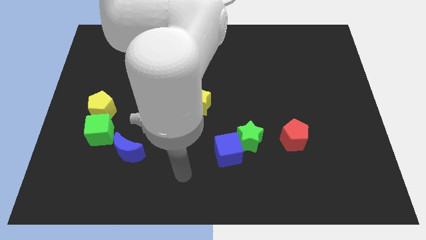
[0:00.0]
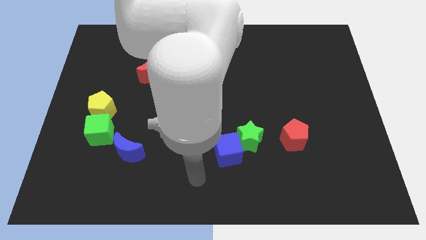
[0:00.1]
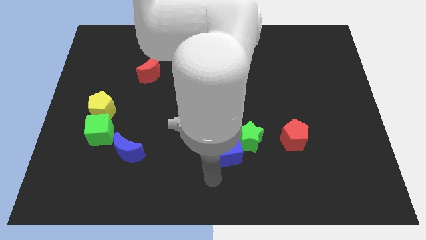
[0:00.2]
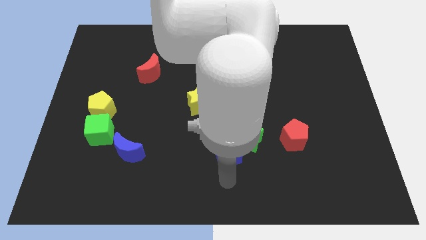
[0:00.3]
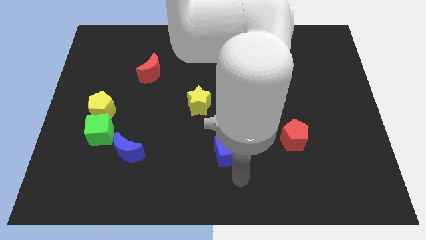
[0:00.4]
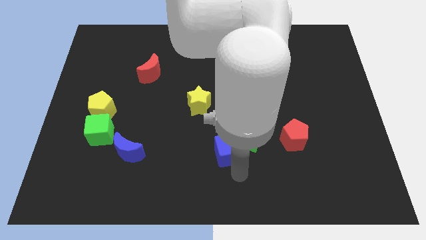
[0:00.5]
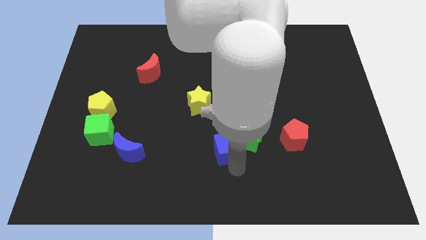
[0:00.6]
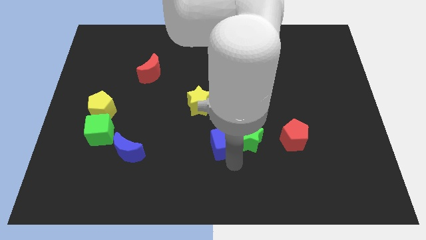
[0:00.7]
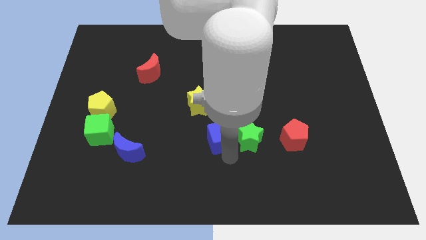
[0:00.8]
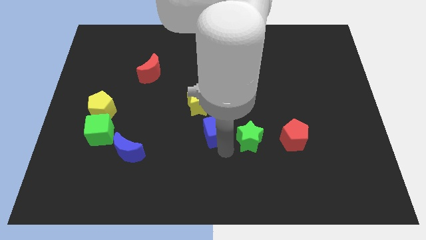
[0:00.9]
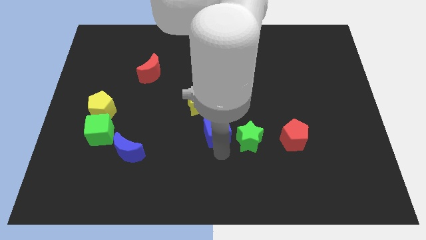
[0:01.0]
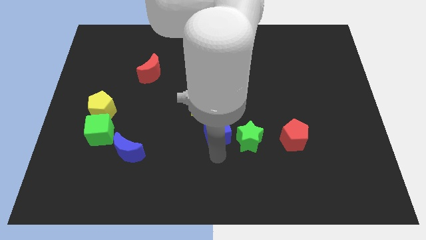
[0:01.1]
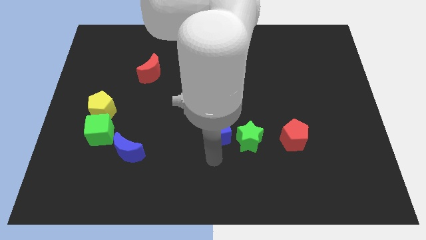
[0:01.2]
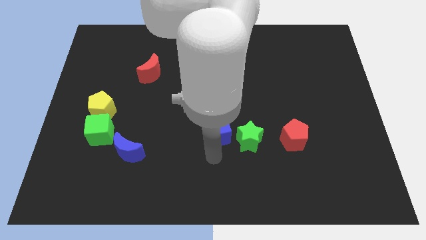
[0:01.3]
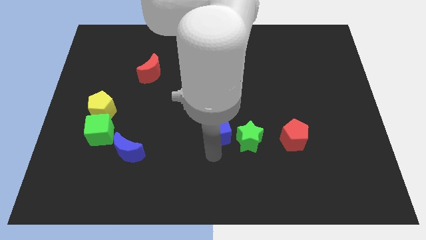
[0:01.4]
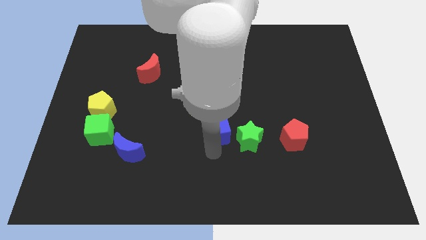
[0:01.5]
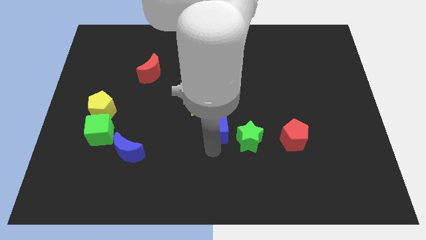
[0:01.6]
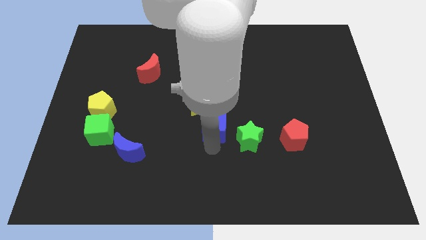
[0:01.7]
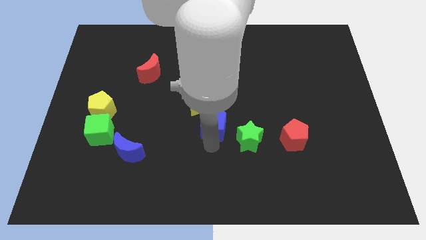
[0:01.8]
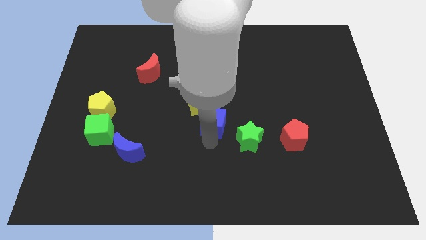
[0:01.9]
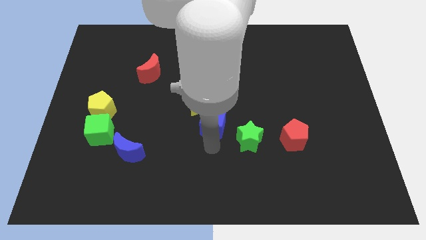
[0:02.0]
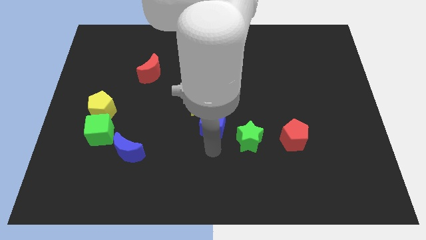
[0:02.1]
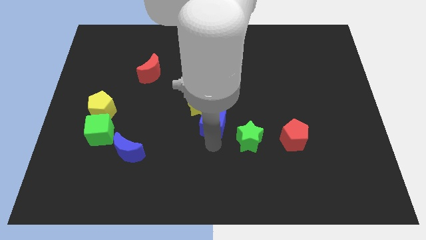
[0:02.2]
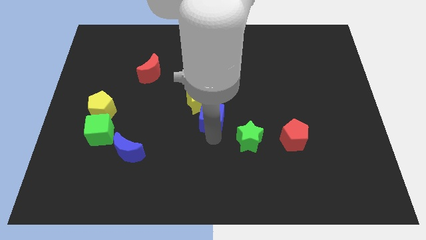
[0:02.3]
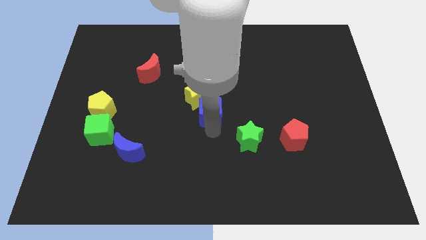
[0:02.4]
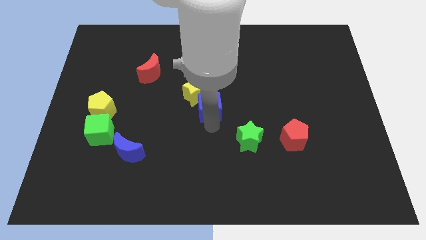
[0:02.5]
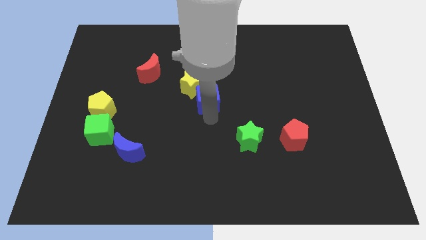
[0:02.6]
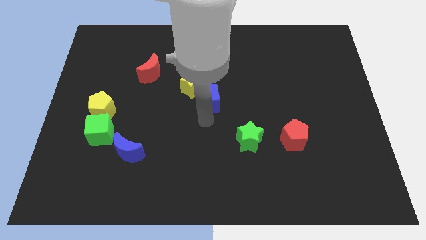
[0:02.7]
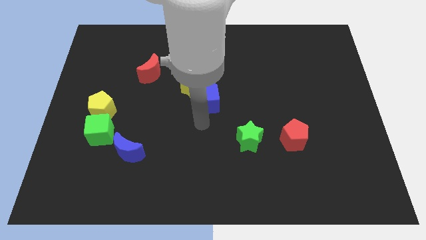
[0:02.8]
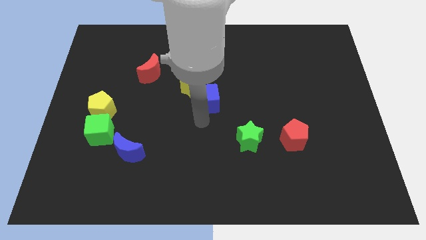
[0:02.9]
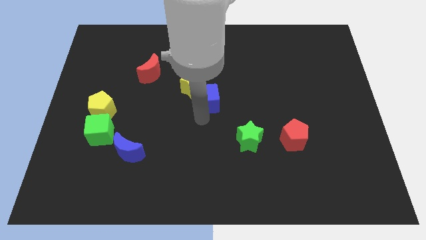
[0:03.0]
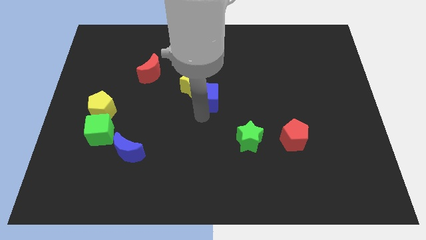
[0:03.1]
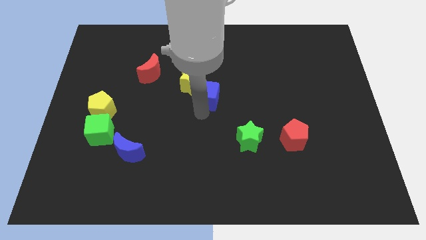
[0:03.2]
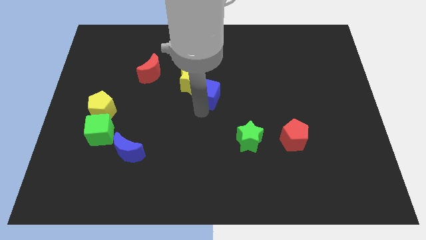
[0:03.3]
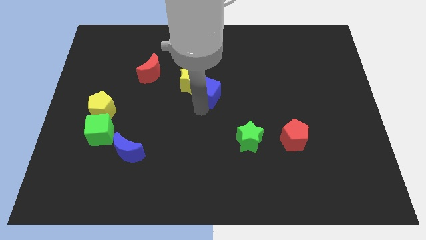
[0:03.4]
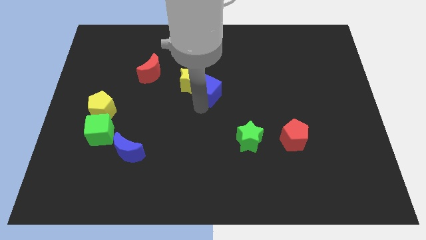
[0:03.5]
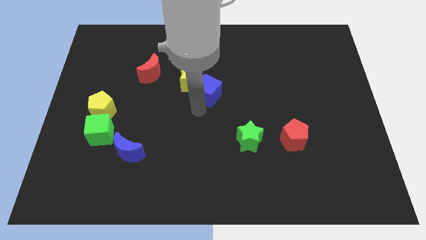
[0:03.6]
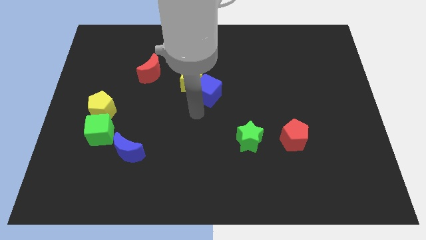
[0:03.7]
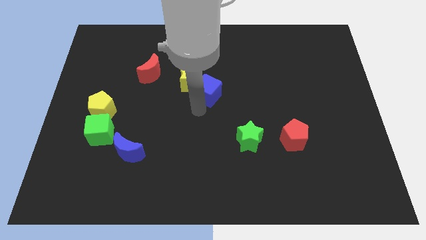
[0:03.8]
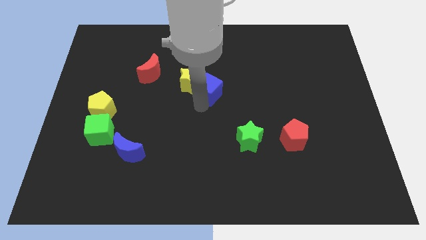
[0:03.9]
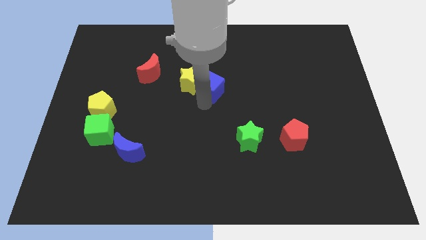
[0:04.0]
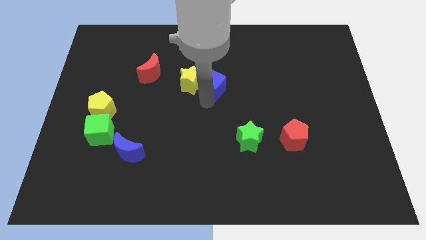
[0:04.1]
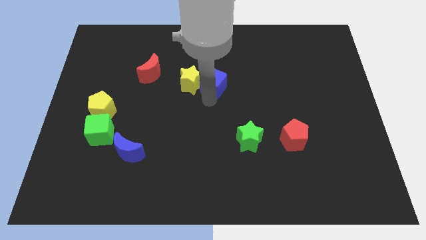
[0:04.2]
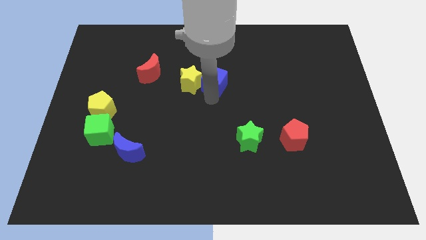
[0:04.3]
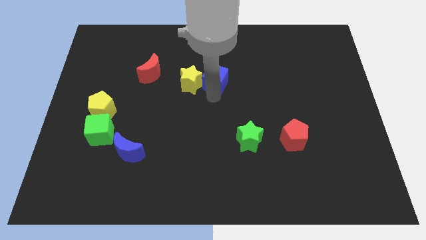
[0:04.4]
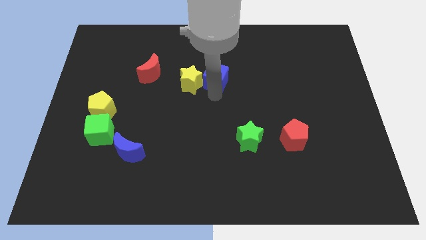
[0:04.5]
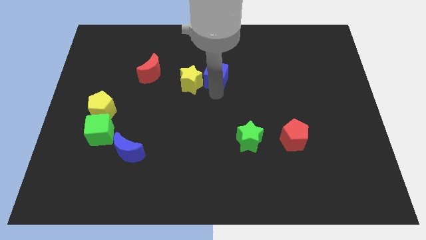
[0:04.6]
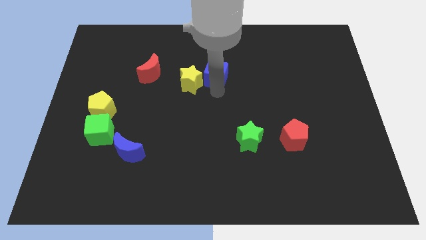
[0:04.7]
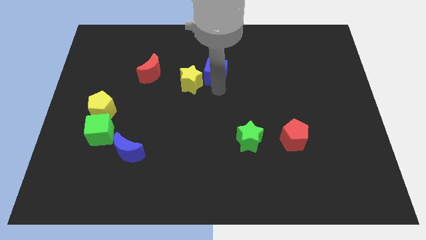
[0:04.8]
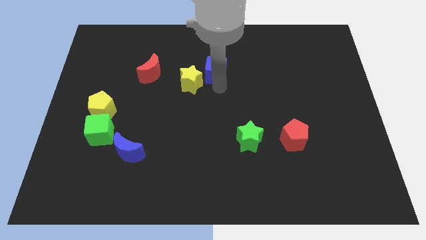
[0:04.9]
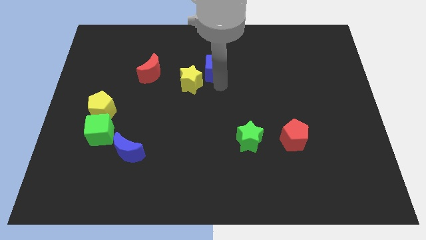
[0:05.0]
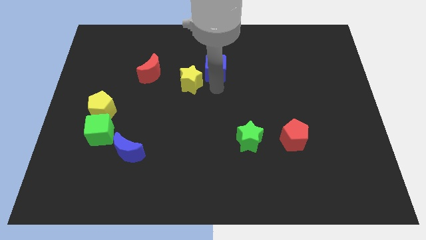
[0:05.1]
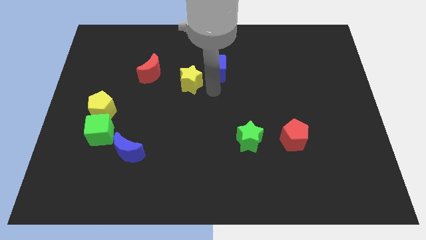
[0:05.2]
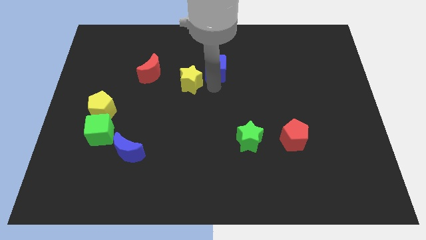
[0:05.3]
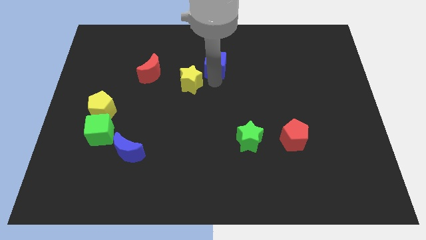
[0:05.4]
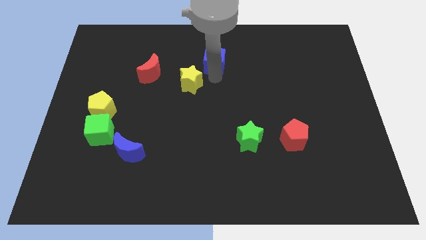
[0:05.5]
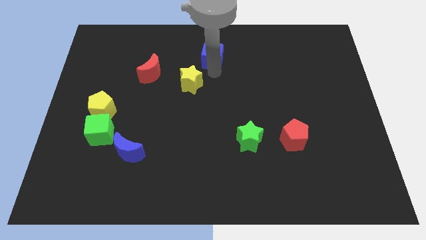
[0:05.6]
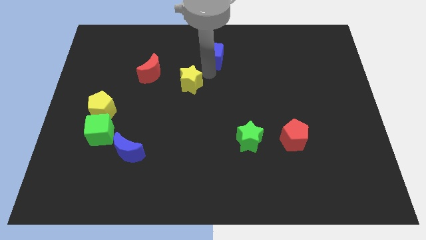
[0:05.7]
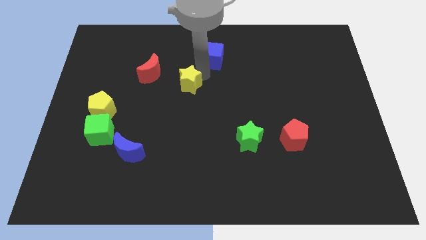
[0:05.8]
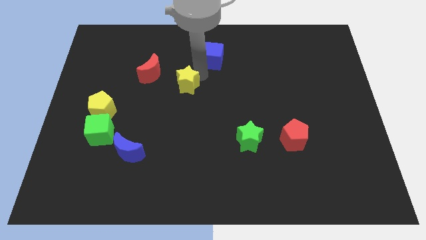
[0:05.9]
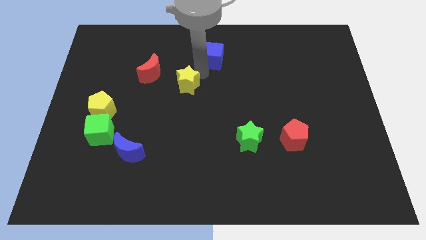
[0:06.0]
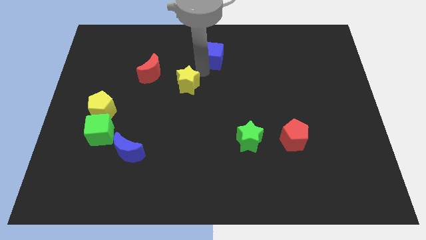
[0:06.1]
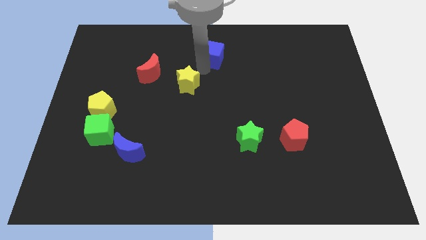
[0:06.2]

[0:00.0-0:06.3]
slide the blue cube to the towards your base

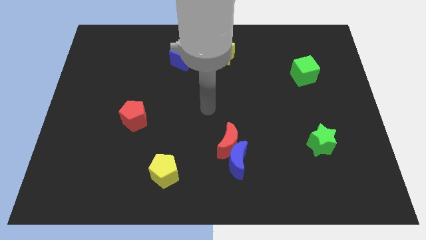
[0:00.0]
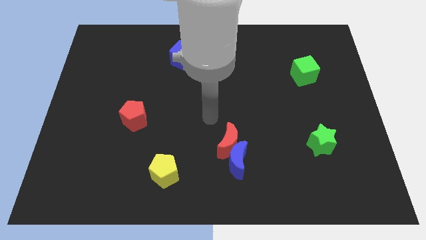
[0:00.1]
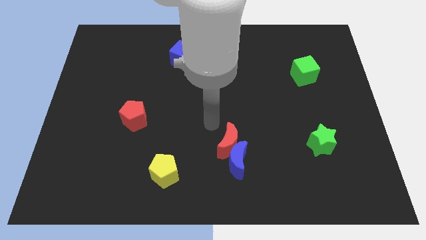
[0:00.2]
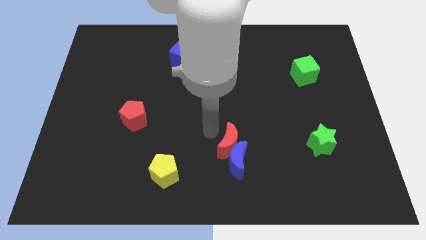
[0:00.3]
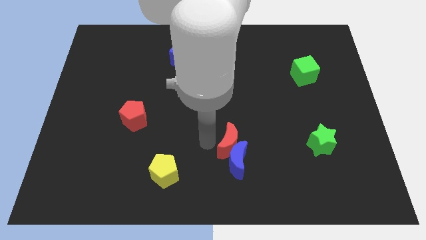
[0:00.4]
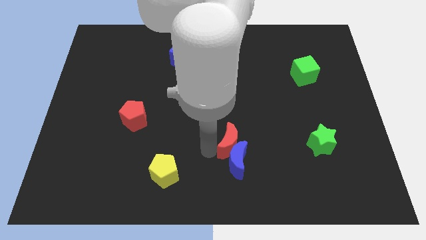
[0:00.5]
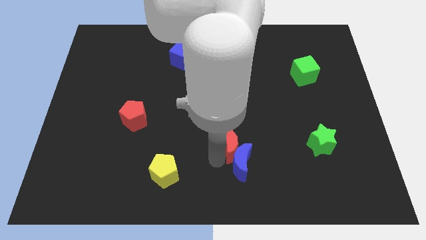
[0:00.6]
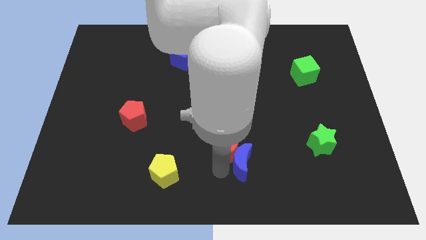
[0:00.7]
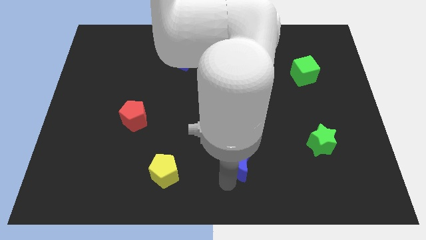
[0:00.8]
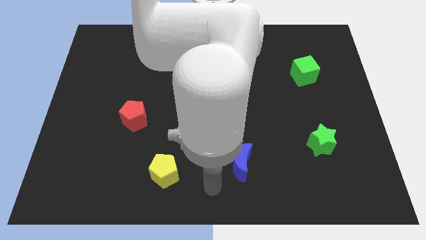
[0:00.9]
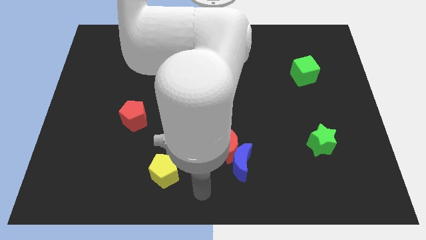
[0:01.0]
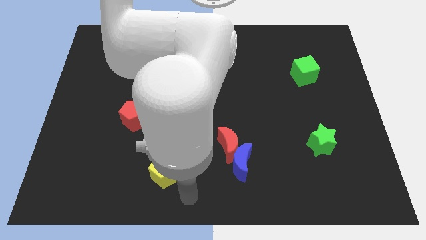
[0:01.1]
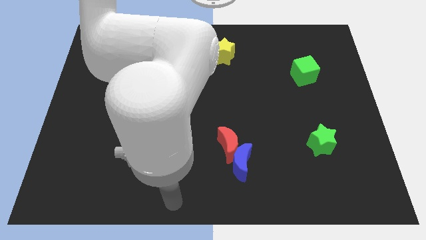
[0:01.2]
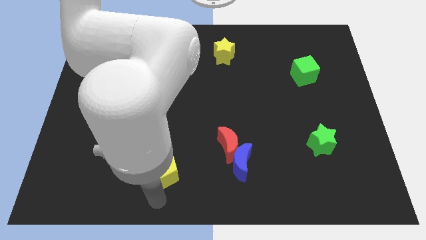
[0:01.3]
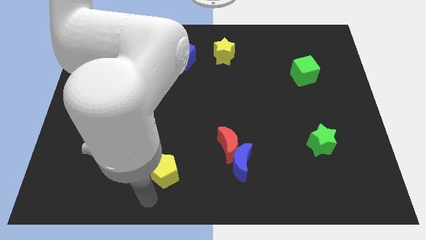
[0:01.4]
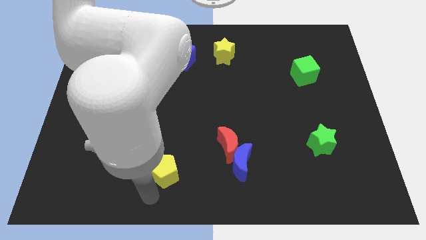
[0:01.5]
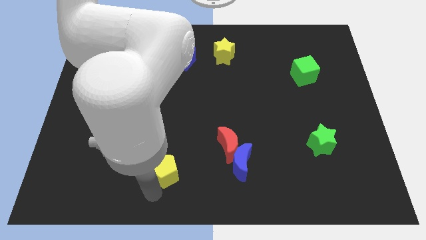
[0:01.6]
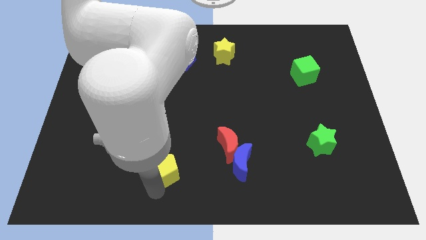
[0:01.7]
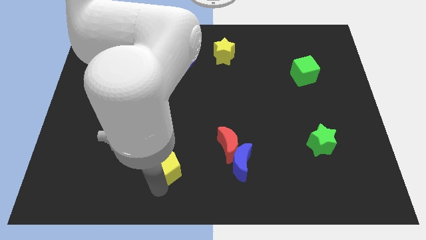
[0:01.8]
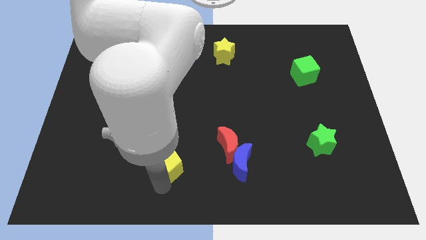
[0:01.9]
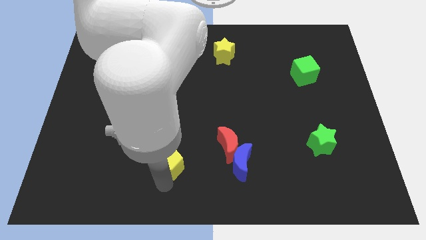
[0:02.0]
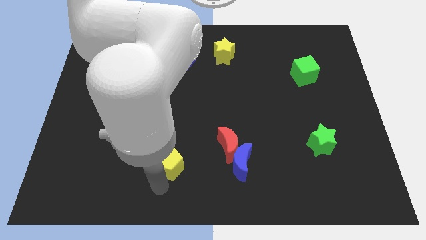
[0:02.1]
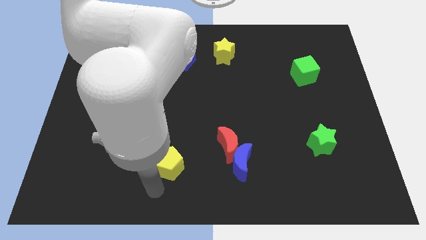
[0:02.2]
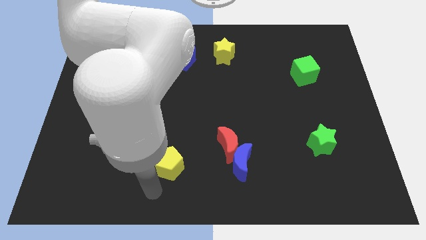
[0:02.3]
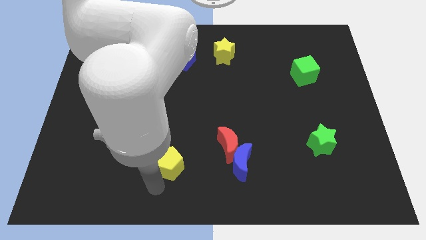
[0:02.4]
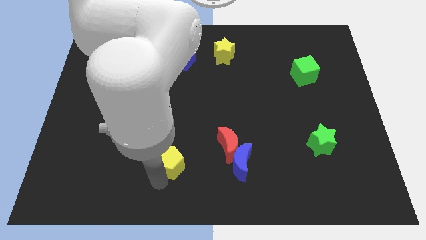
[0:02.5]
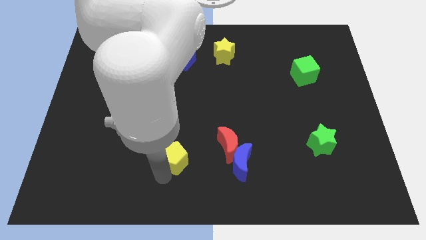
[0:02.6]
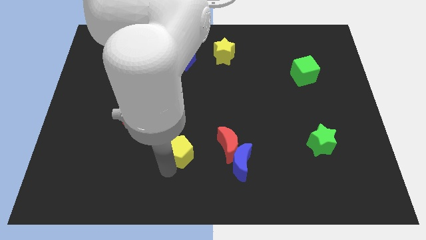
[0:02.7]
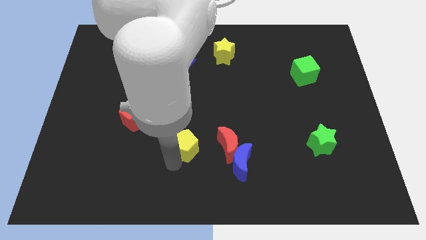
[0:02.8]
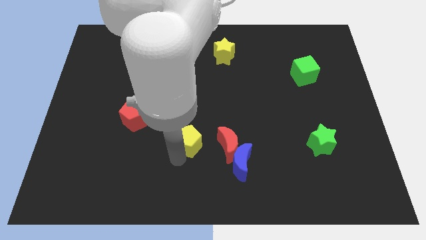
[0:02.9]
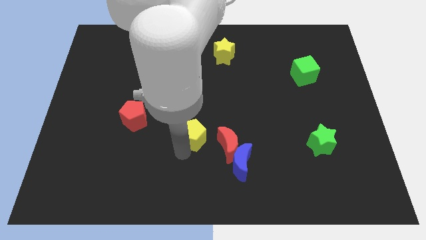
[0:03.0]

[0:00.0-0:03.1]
slide the yellow pentagon to the middle
